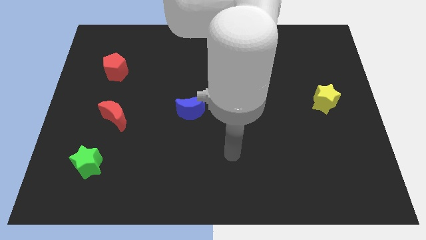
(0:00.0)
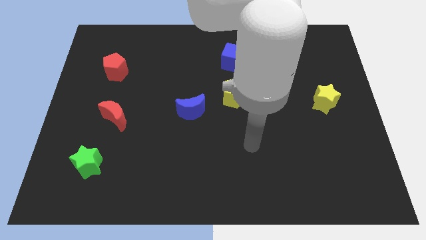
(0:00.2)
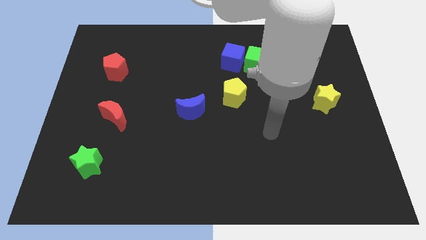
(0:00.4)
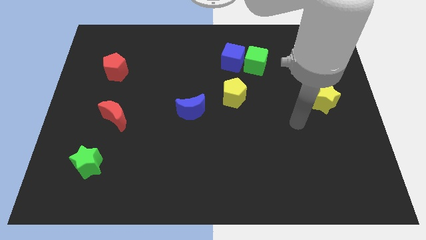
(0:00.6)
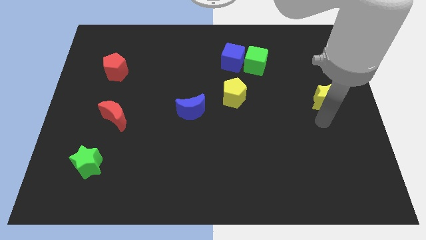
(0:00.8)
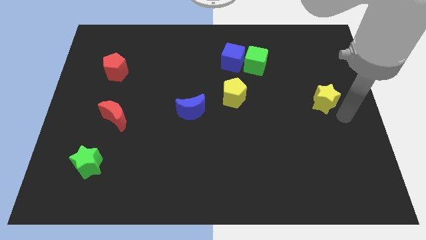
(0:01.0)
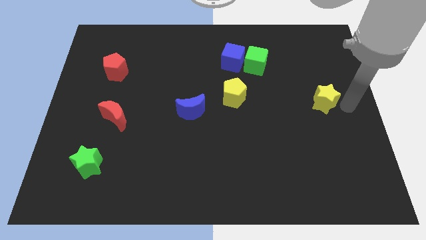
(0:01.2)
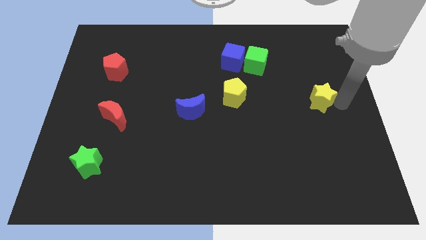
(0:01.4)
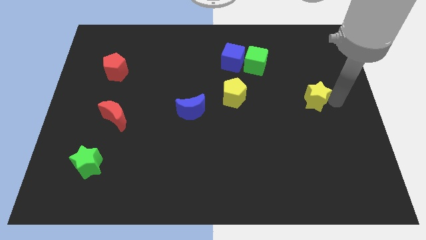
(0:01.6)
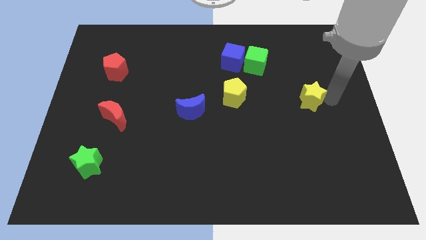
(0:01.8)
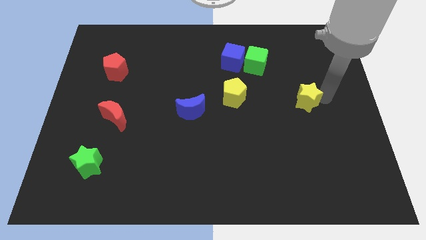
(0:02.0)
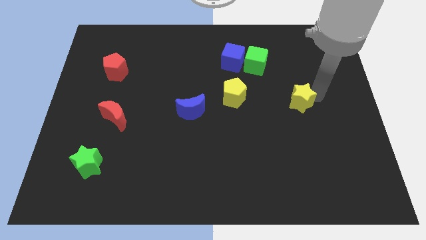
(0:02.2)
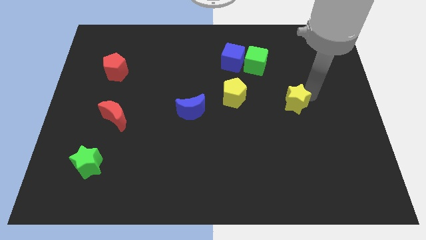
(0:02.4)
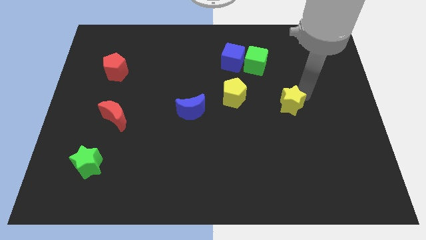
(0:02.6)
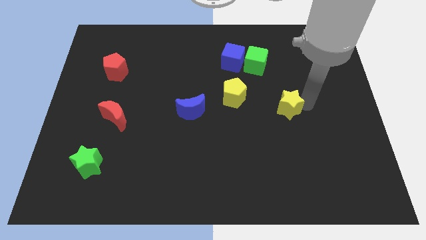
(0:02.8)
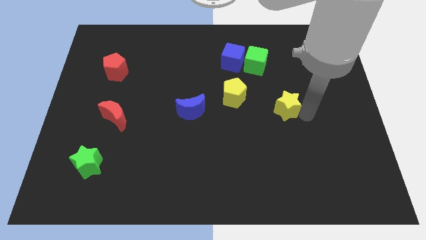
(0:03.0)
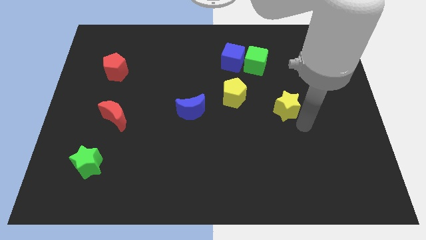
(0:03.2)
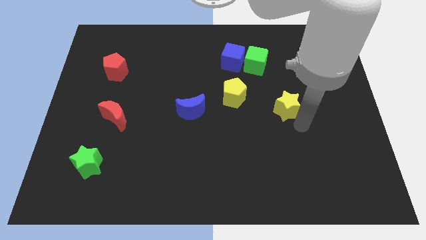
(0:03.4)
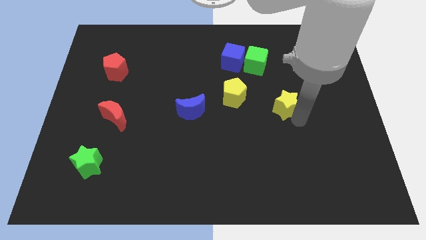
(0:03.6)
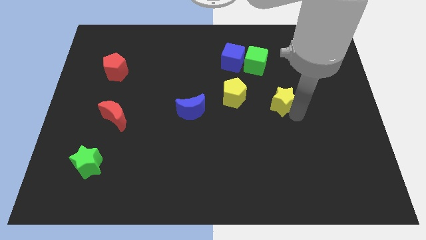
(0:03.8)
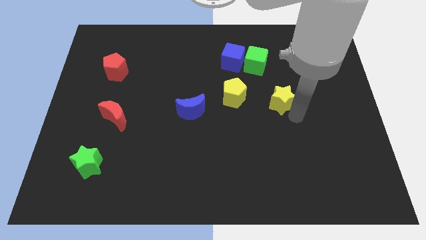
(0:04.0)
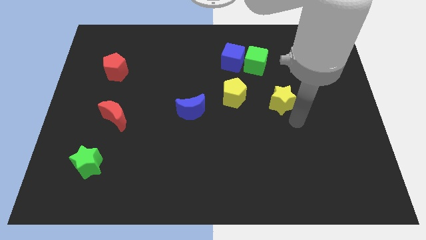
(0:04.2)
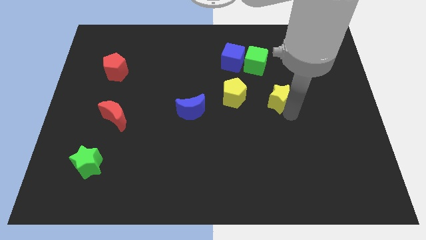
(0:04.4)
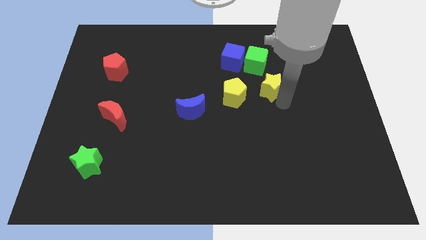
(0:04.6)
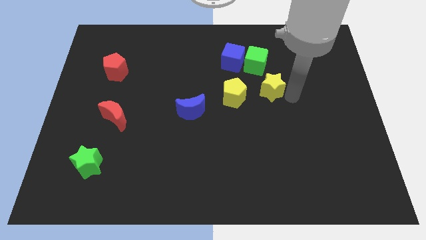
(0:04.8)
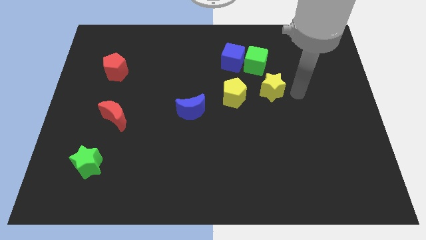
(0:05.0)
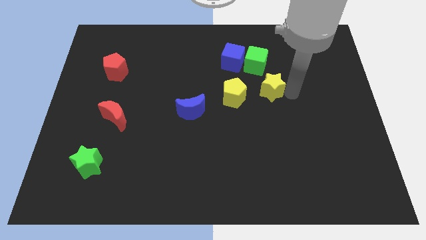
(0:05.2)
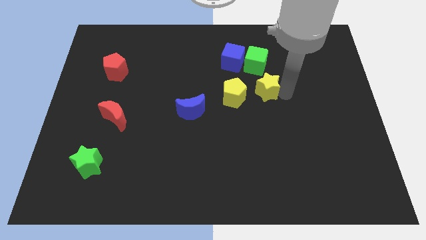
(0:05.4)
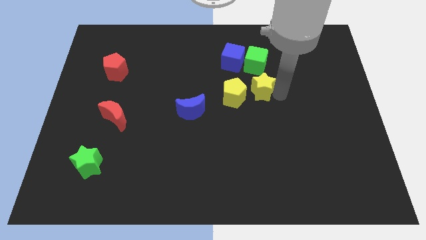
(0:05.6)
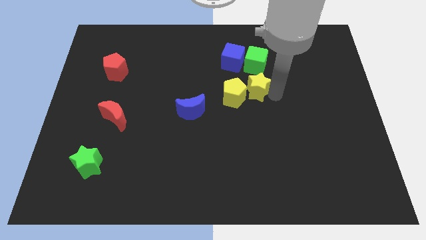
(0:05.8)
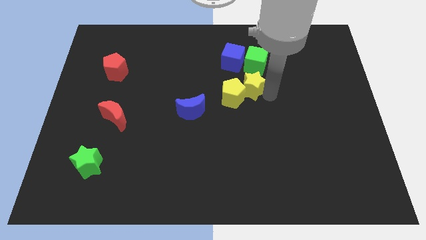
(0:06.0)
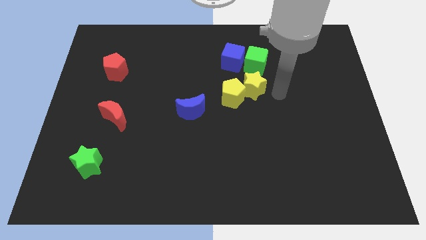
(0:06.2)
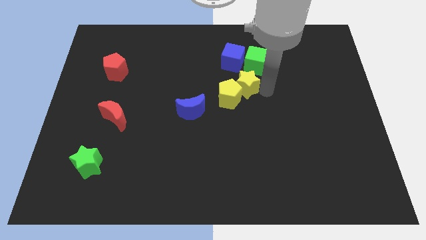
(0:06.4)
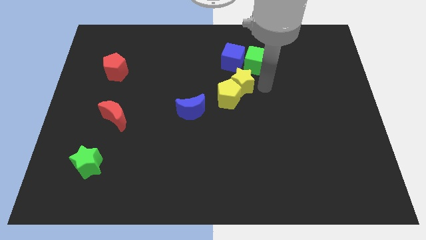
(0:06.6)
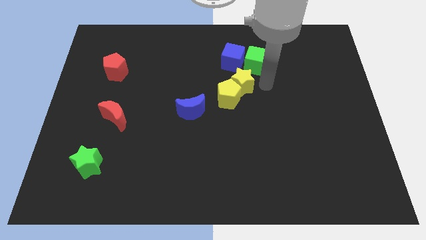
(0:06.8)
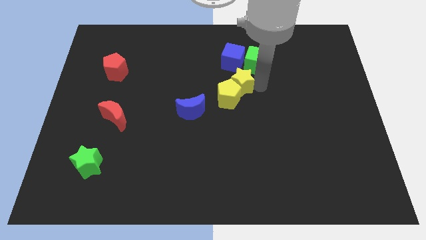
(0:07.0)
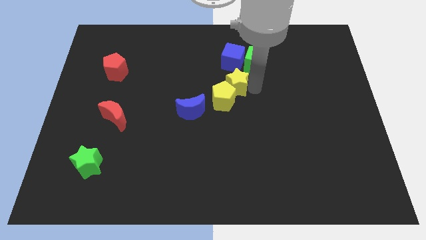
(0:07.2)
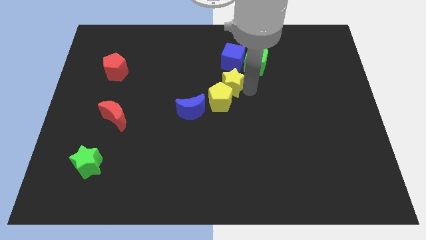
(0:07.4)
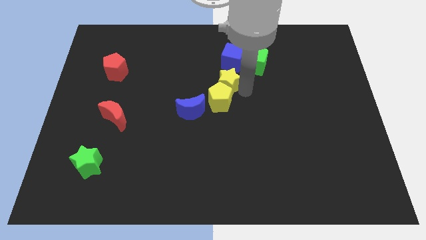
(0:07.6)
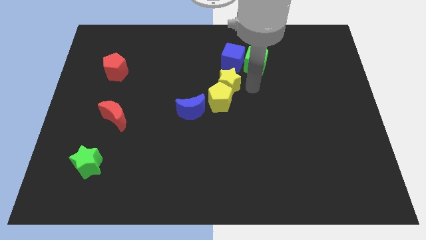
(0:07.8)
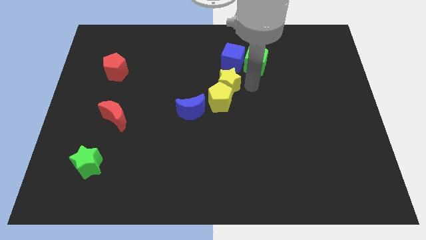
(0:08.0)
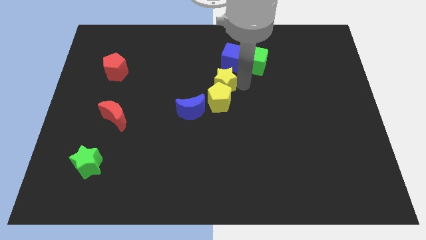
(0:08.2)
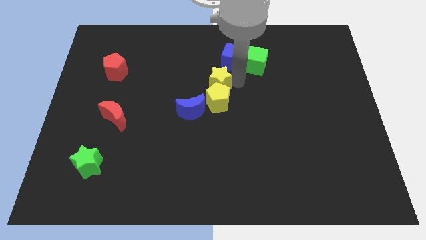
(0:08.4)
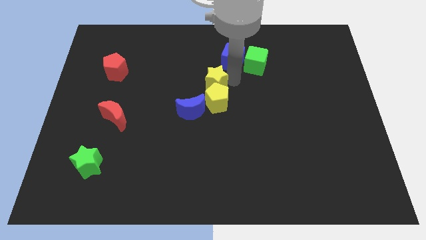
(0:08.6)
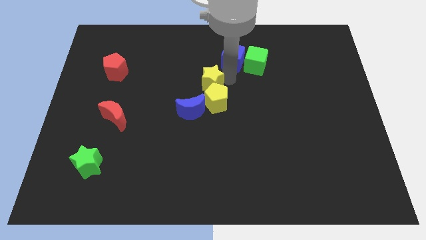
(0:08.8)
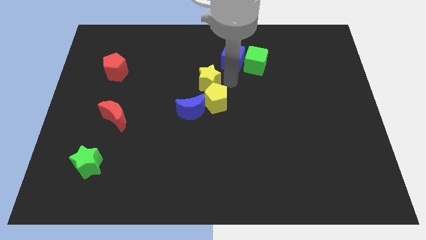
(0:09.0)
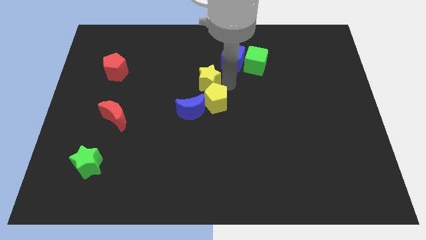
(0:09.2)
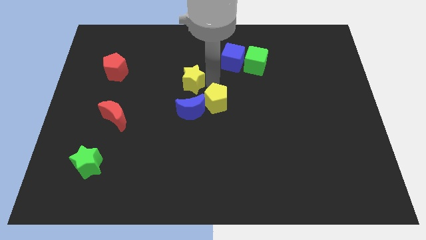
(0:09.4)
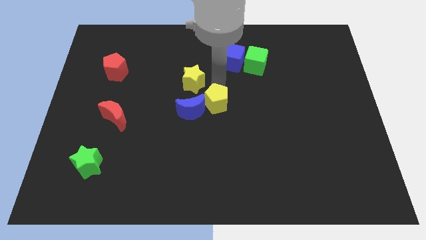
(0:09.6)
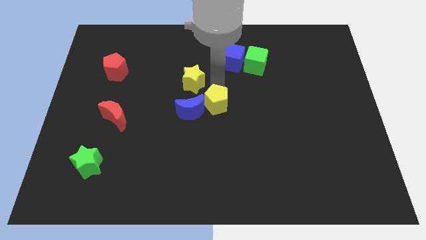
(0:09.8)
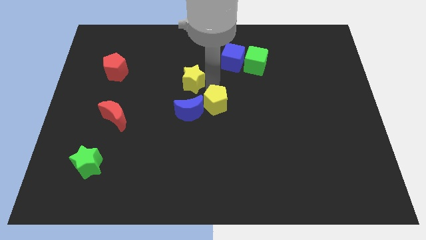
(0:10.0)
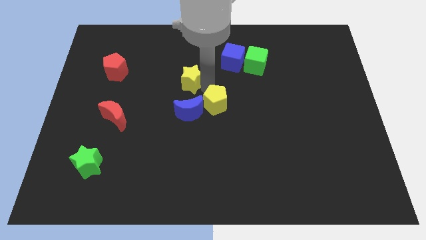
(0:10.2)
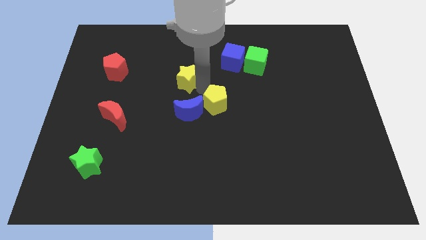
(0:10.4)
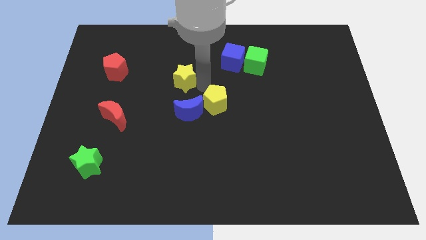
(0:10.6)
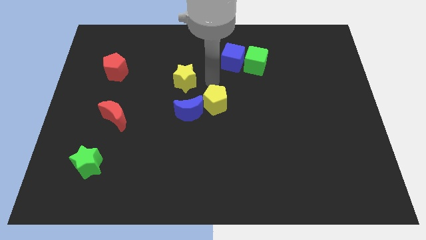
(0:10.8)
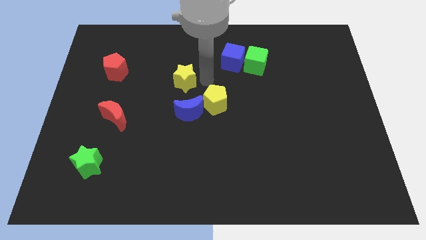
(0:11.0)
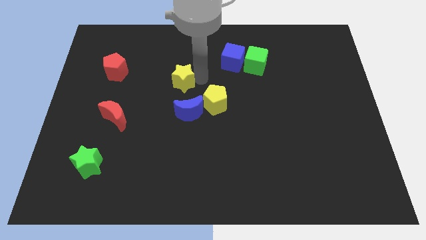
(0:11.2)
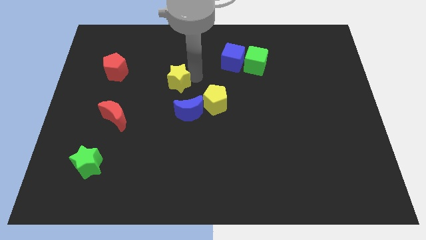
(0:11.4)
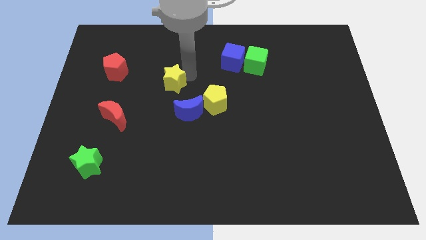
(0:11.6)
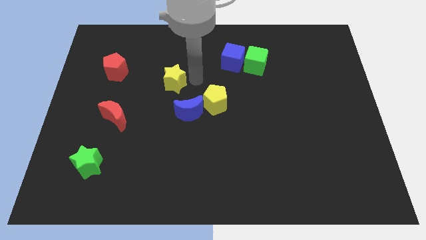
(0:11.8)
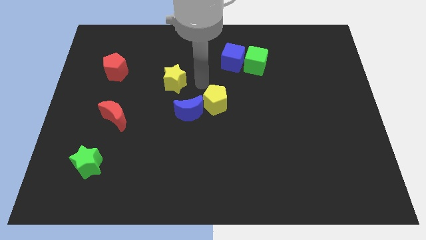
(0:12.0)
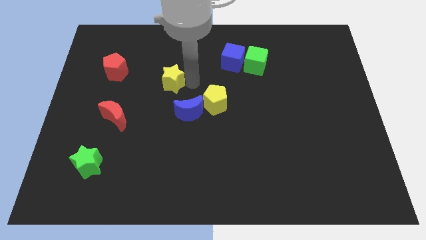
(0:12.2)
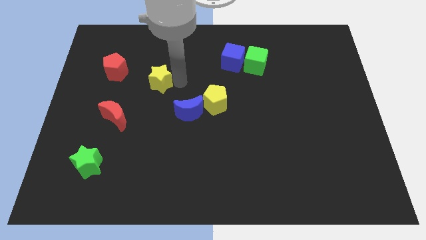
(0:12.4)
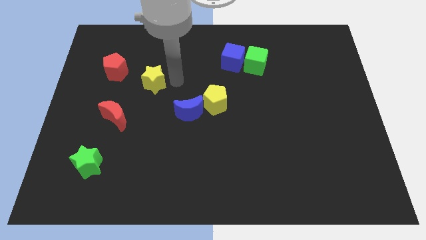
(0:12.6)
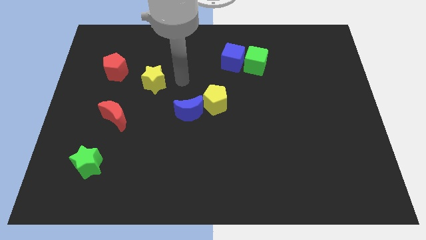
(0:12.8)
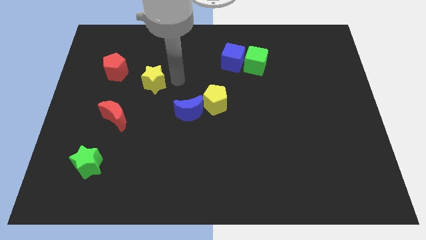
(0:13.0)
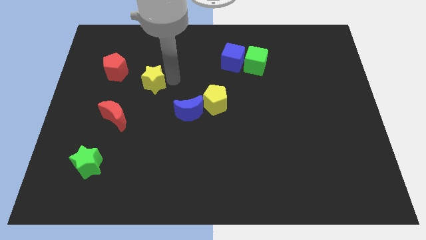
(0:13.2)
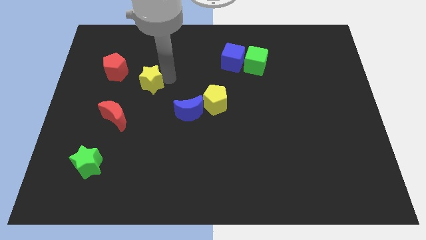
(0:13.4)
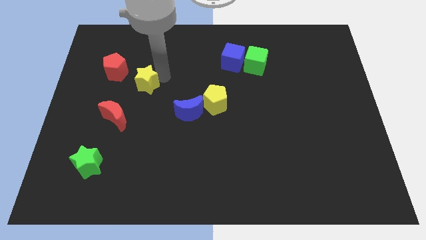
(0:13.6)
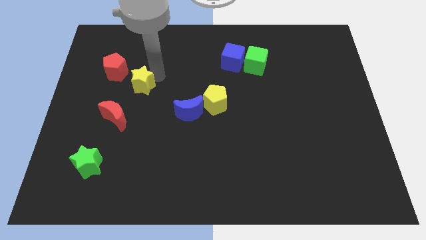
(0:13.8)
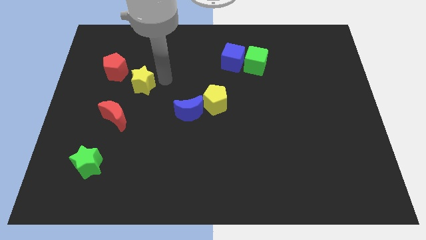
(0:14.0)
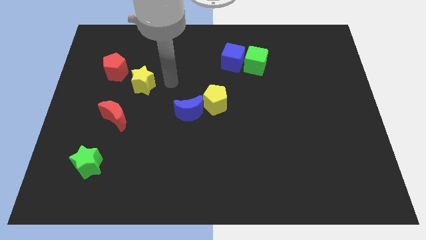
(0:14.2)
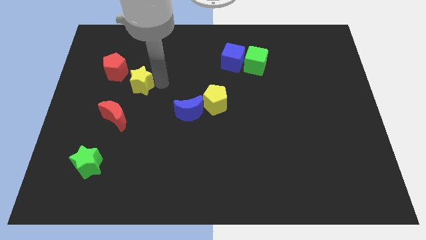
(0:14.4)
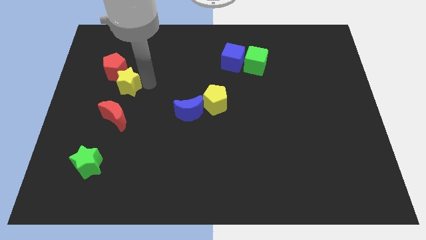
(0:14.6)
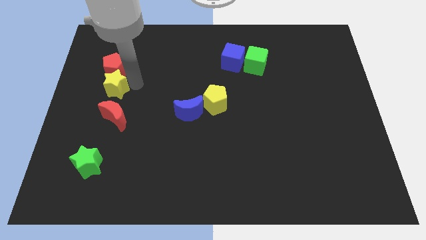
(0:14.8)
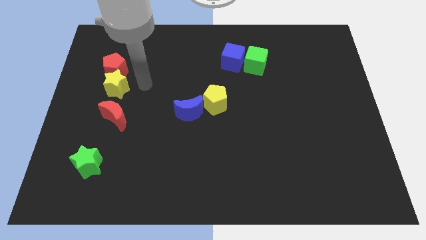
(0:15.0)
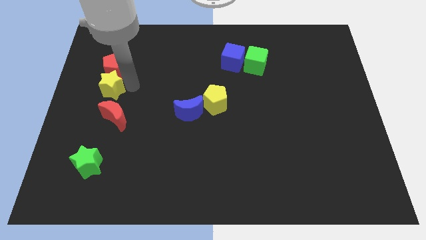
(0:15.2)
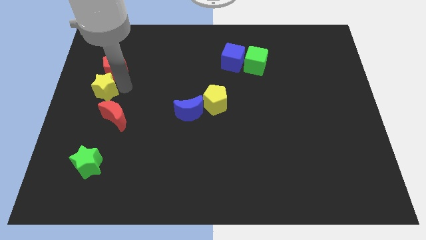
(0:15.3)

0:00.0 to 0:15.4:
move the yellow star to the center left
